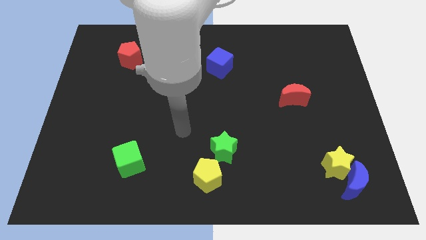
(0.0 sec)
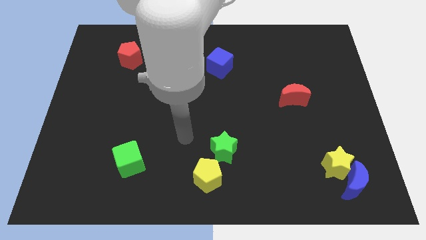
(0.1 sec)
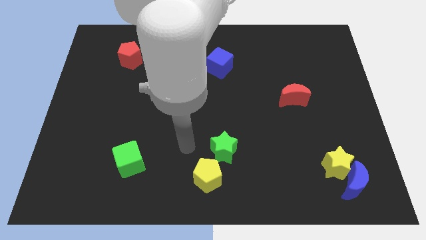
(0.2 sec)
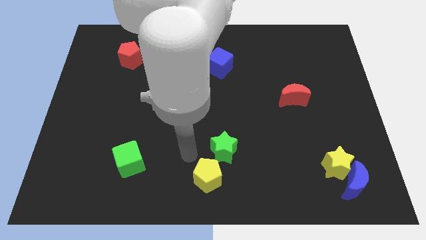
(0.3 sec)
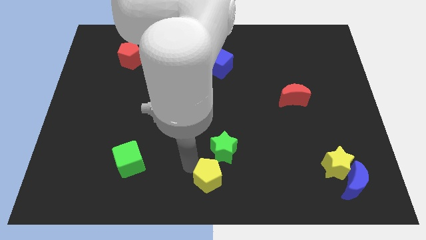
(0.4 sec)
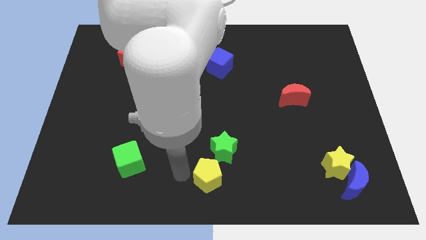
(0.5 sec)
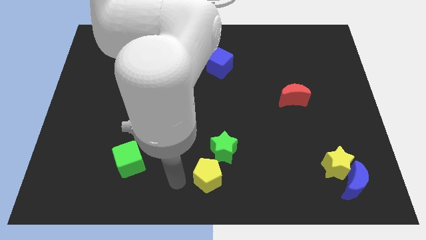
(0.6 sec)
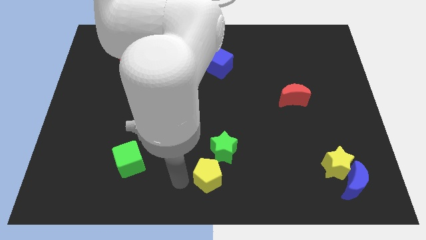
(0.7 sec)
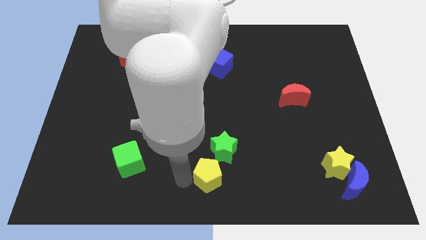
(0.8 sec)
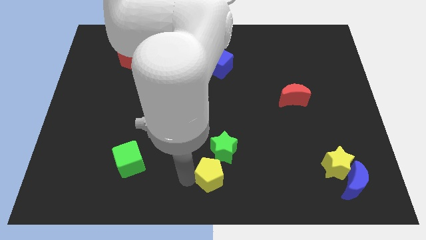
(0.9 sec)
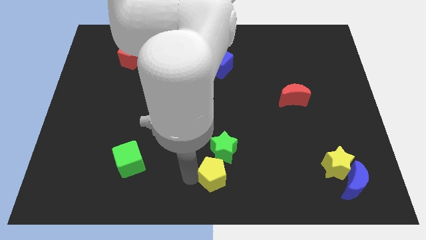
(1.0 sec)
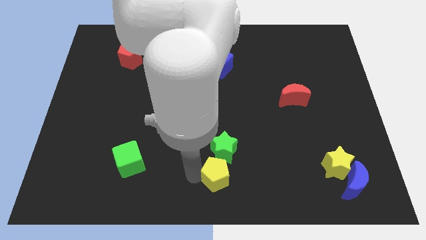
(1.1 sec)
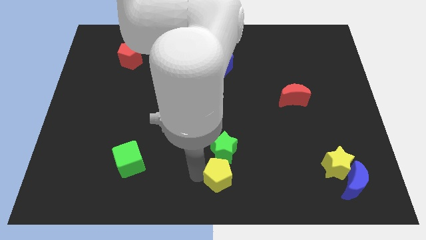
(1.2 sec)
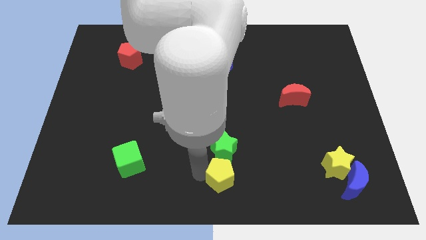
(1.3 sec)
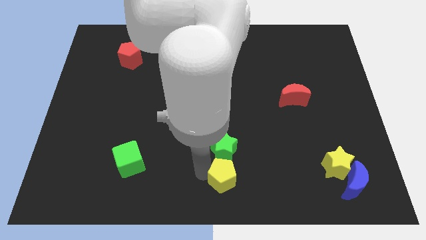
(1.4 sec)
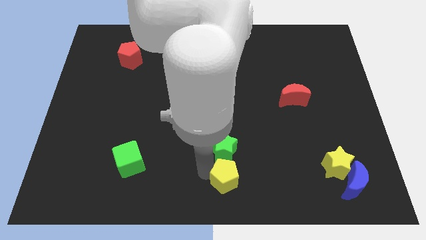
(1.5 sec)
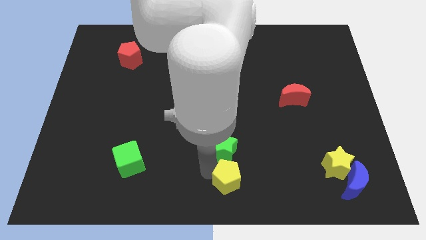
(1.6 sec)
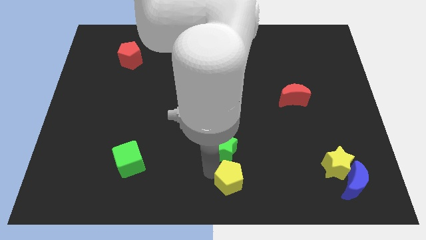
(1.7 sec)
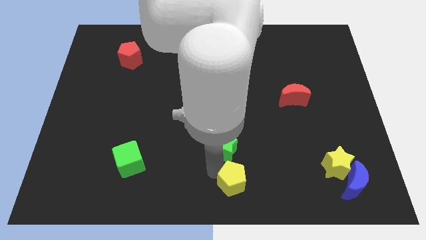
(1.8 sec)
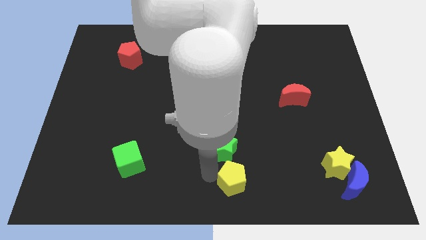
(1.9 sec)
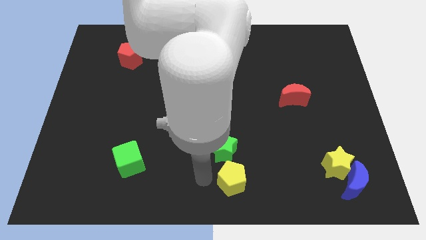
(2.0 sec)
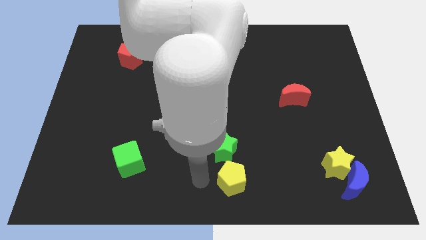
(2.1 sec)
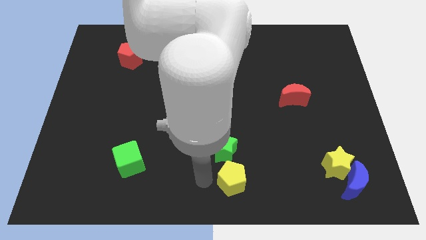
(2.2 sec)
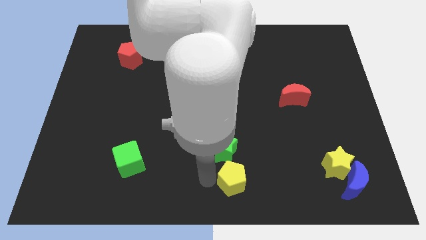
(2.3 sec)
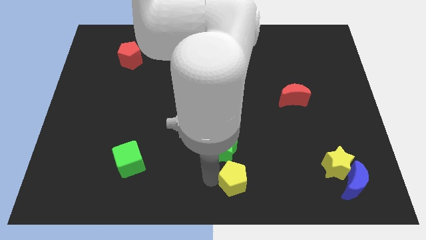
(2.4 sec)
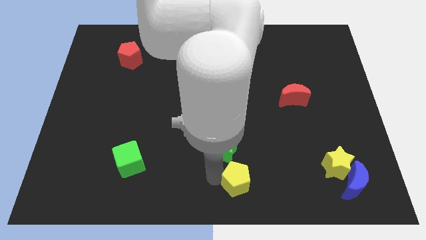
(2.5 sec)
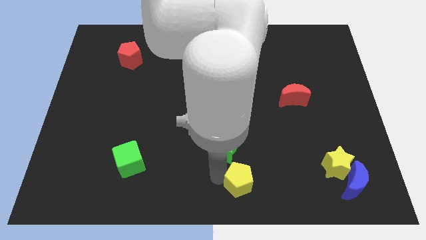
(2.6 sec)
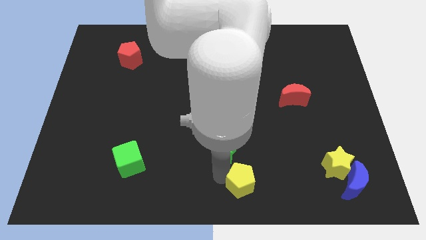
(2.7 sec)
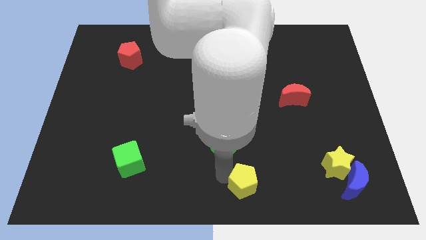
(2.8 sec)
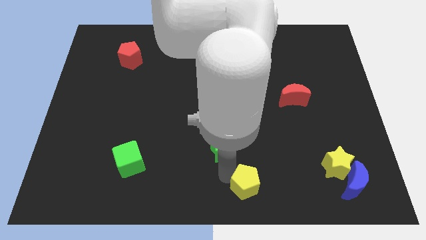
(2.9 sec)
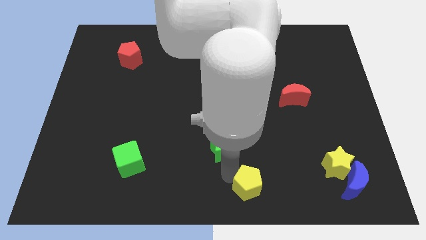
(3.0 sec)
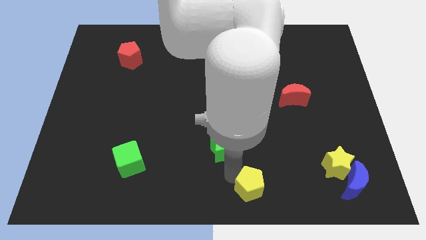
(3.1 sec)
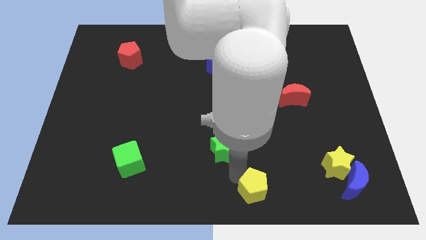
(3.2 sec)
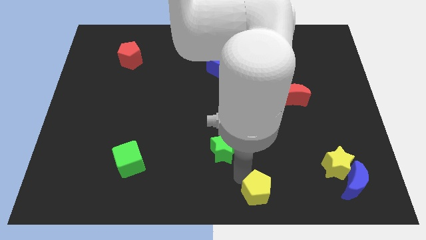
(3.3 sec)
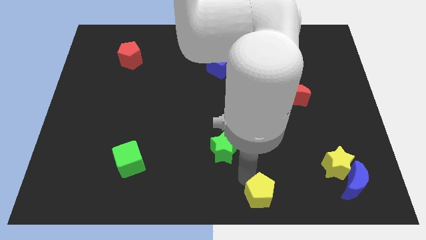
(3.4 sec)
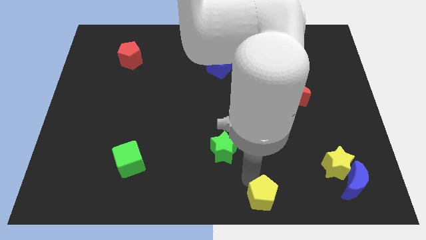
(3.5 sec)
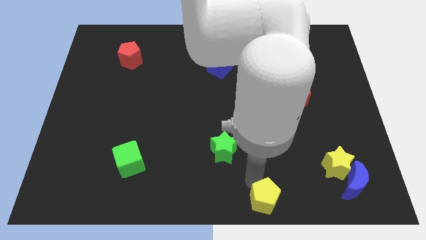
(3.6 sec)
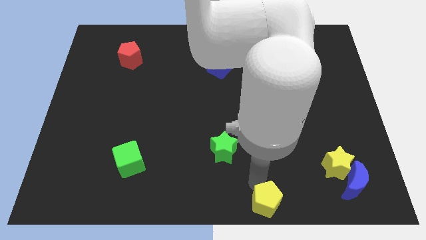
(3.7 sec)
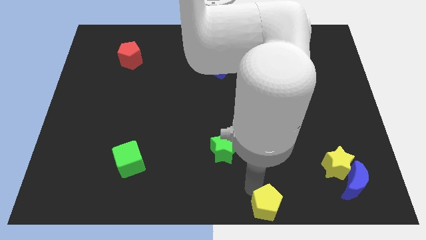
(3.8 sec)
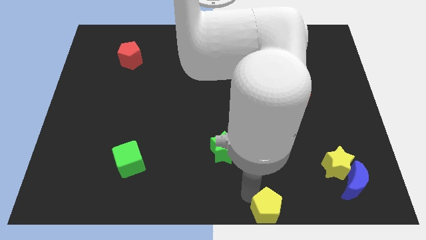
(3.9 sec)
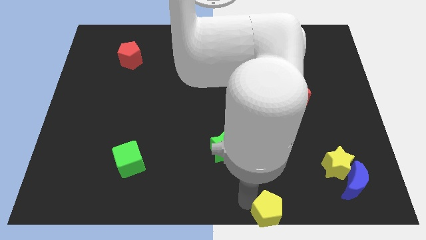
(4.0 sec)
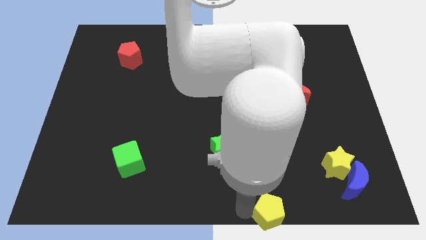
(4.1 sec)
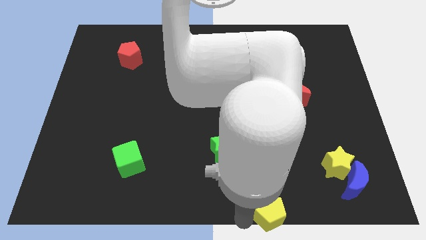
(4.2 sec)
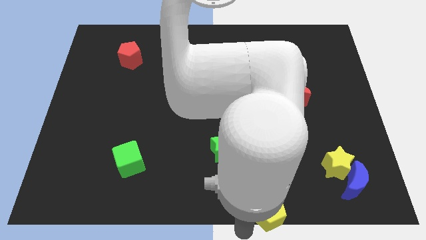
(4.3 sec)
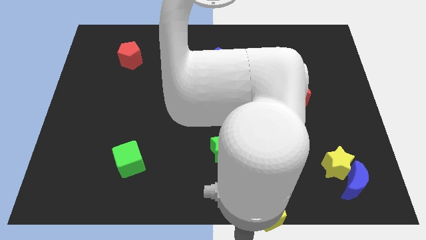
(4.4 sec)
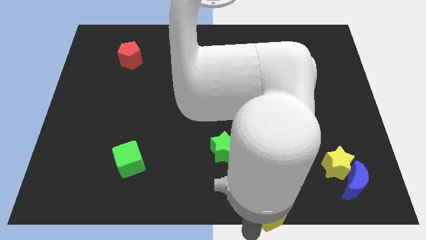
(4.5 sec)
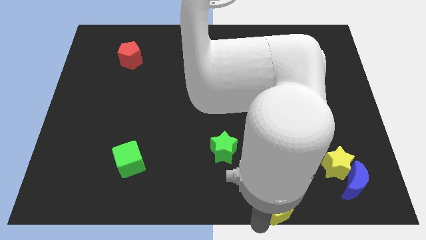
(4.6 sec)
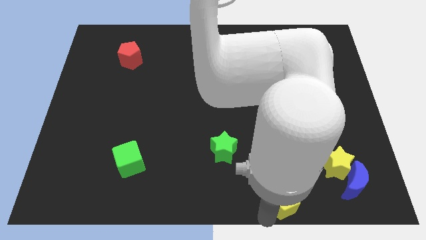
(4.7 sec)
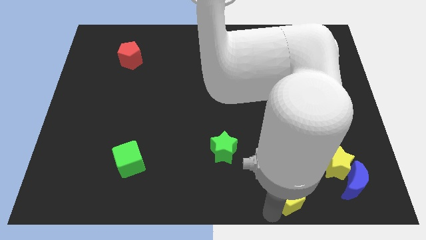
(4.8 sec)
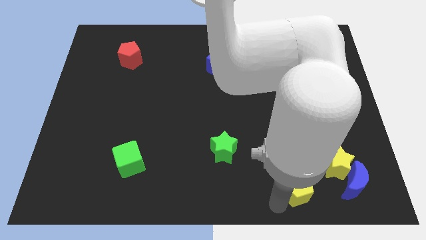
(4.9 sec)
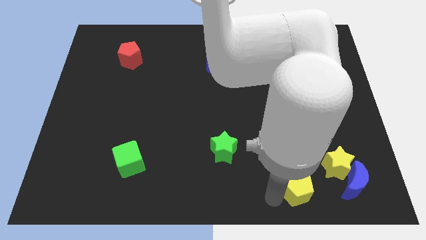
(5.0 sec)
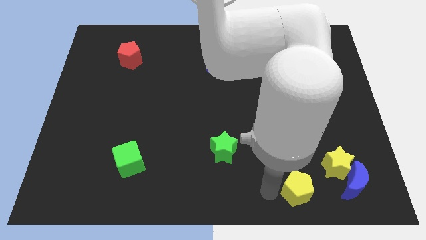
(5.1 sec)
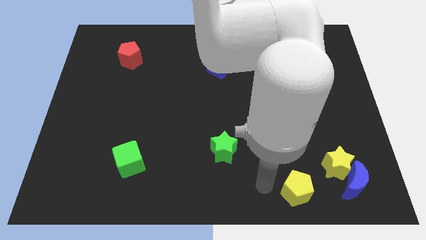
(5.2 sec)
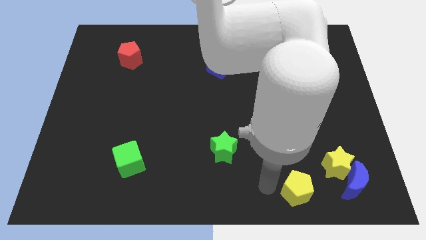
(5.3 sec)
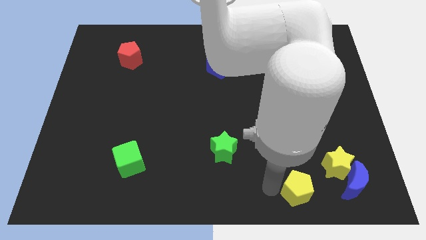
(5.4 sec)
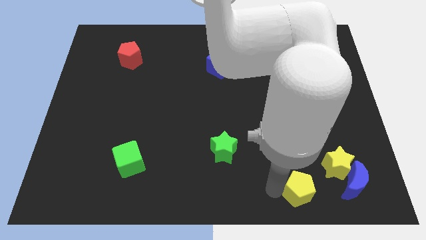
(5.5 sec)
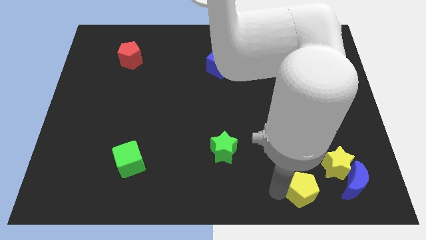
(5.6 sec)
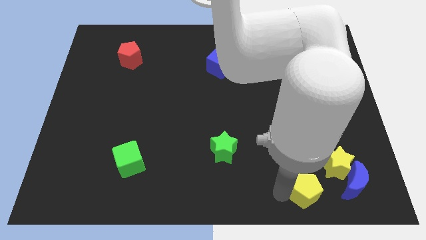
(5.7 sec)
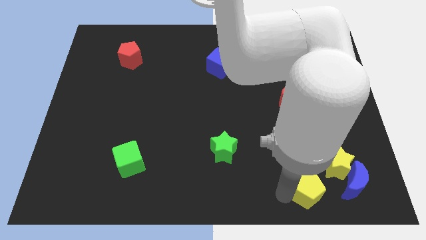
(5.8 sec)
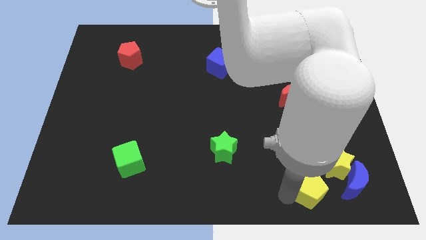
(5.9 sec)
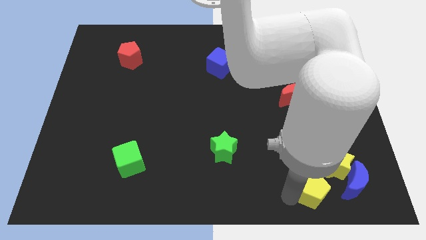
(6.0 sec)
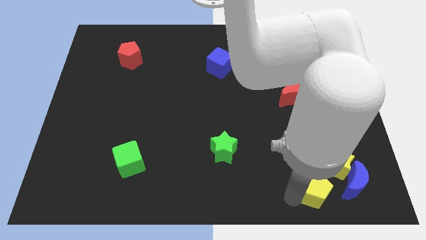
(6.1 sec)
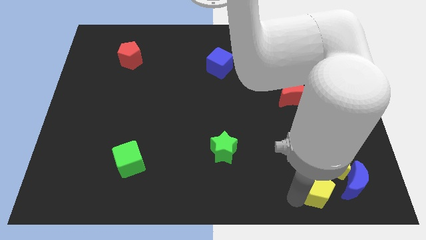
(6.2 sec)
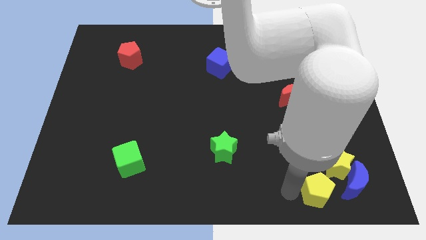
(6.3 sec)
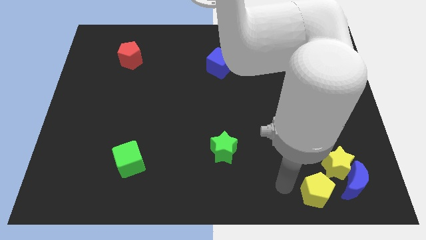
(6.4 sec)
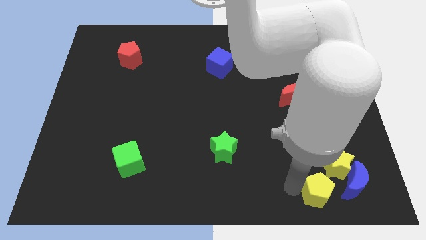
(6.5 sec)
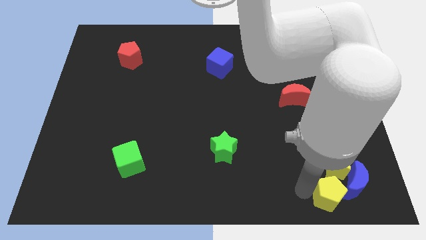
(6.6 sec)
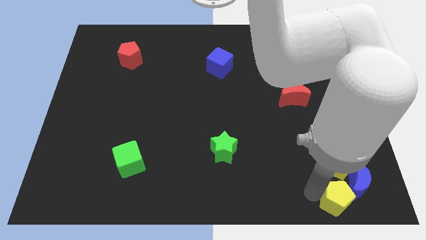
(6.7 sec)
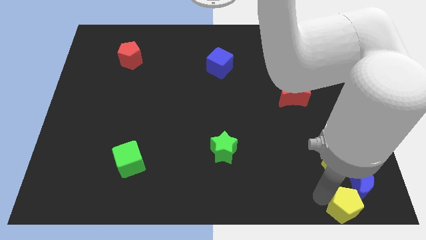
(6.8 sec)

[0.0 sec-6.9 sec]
move the yellow pentagon to the bottom right corner
